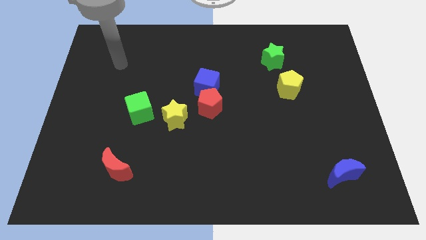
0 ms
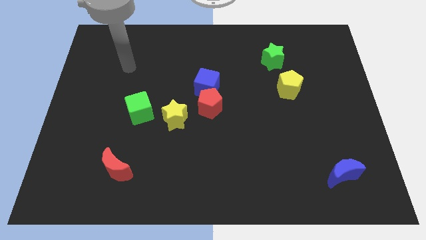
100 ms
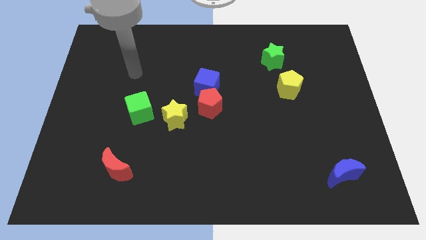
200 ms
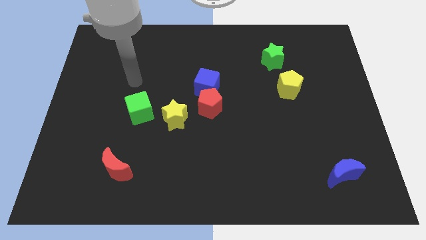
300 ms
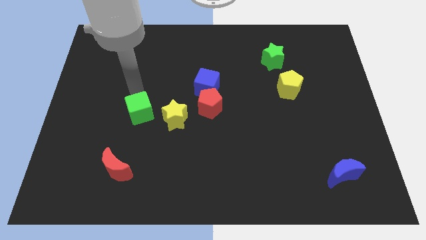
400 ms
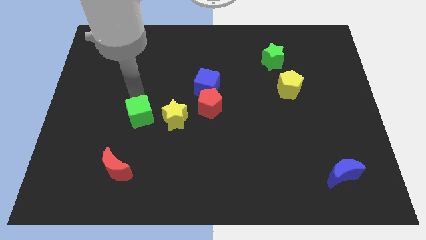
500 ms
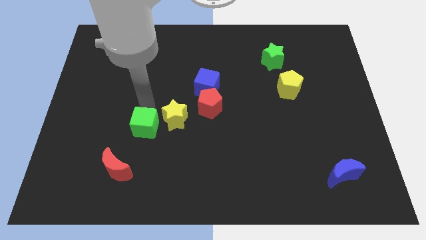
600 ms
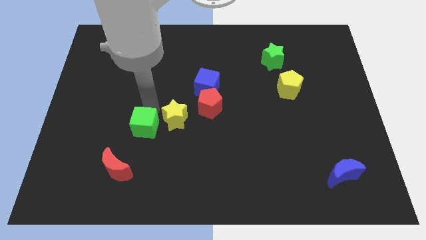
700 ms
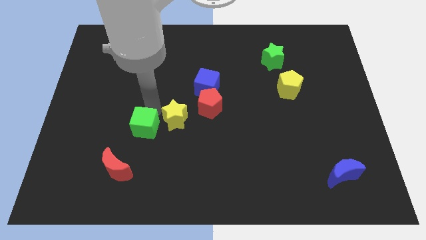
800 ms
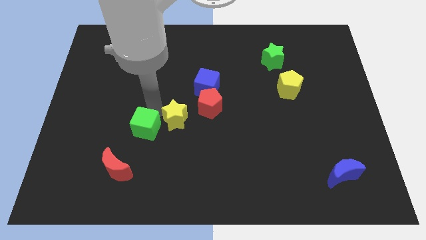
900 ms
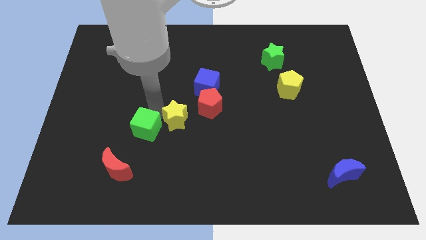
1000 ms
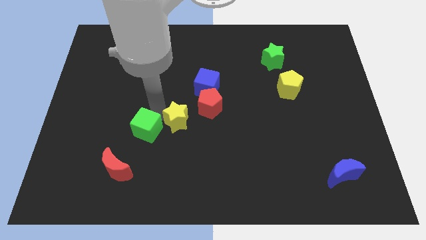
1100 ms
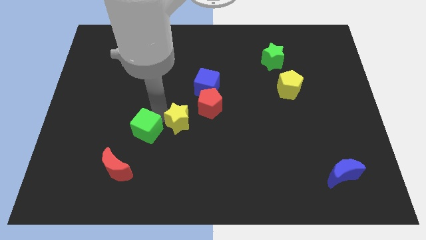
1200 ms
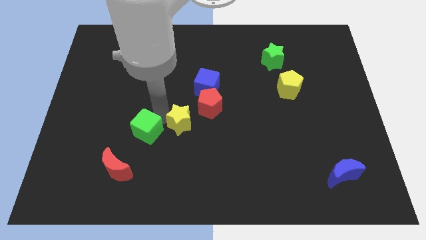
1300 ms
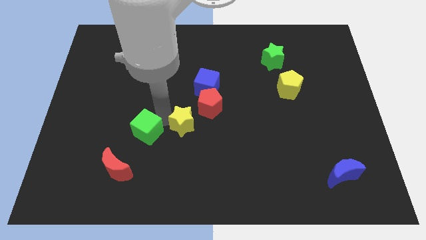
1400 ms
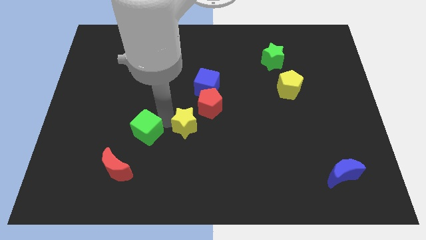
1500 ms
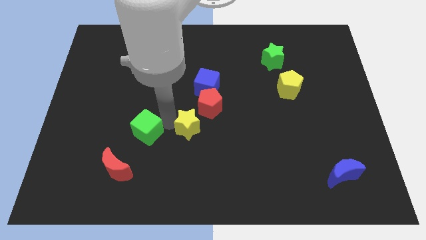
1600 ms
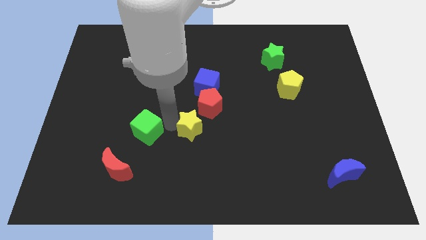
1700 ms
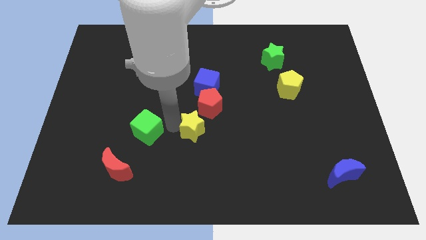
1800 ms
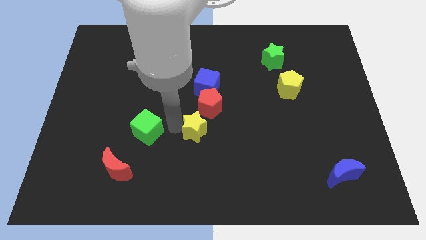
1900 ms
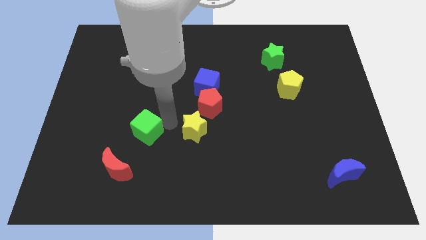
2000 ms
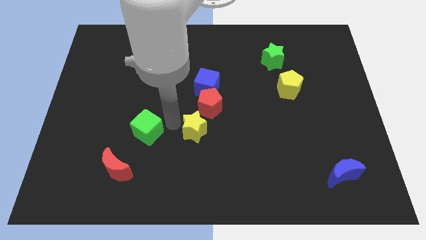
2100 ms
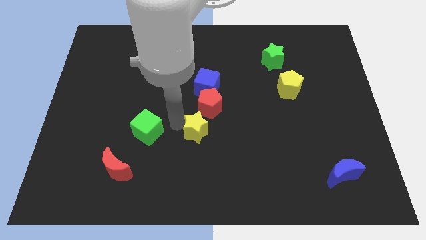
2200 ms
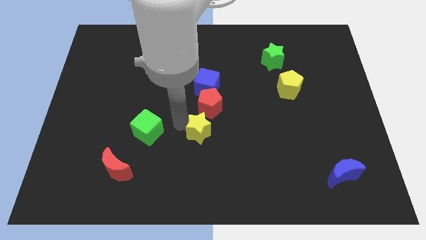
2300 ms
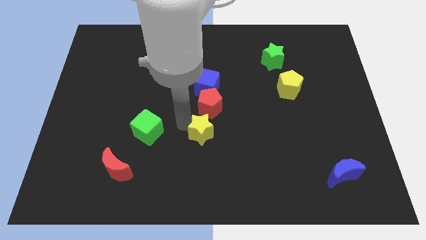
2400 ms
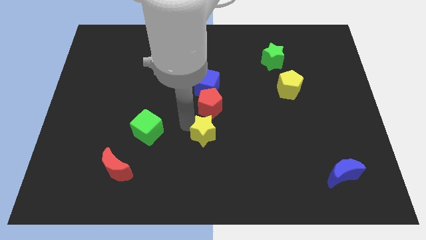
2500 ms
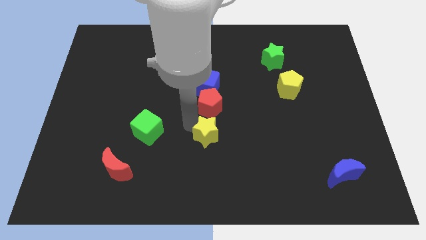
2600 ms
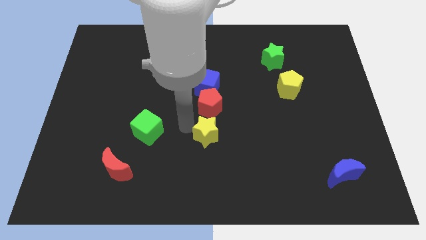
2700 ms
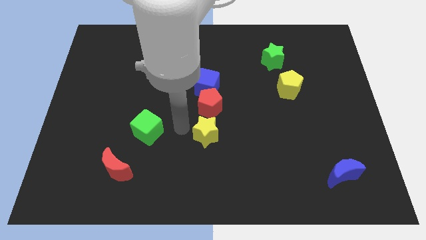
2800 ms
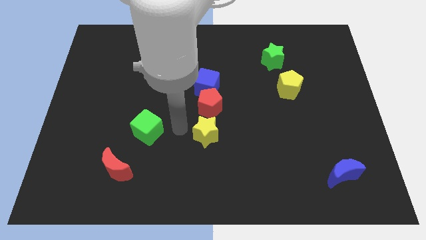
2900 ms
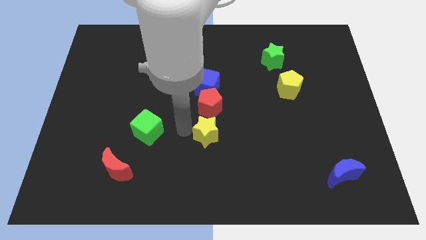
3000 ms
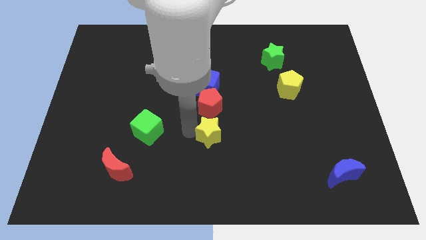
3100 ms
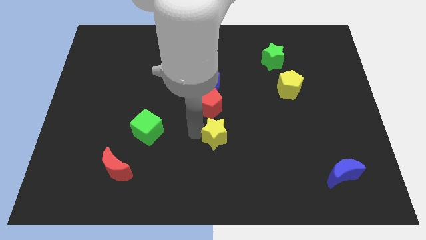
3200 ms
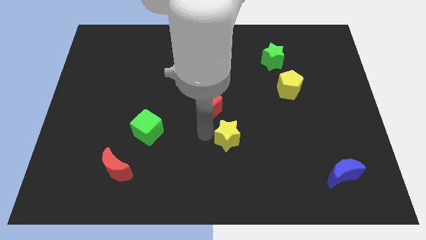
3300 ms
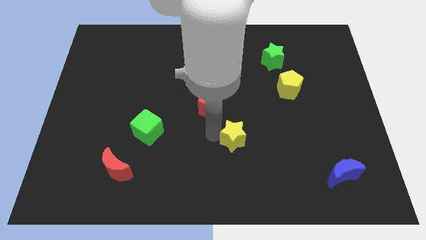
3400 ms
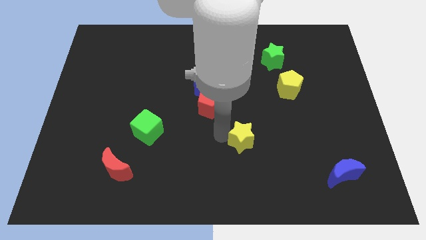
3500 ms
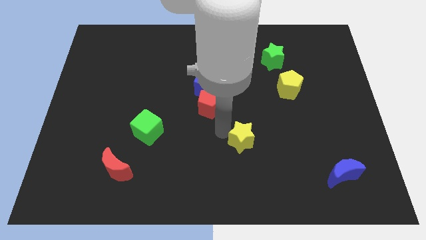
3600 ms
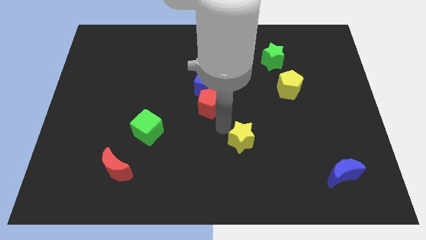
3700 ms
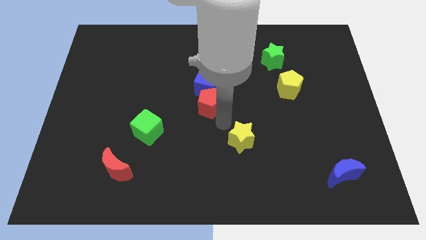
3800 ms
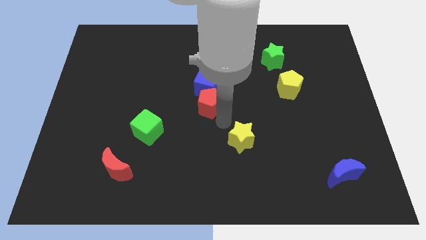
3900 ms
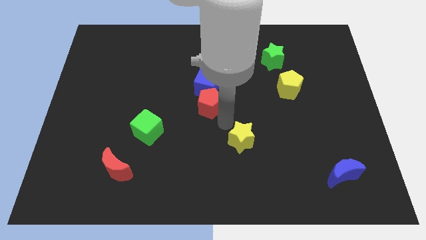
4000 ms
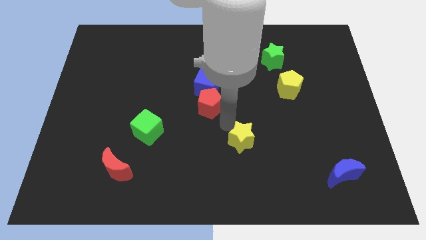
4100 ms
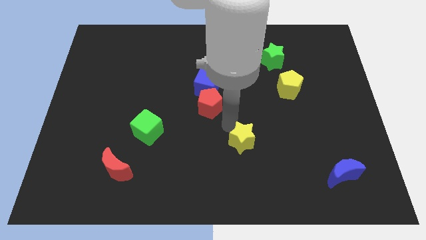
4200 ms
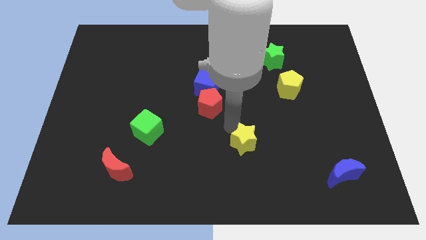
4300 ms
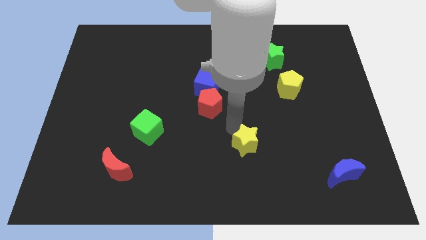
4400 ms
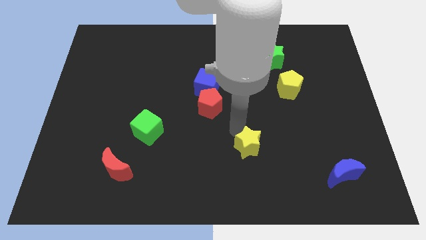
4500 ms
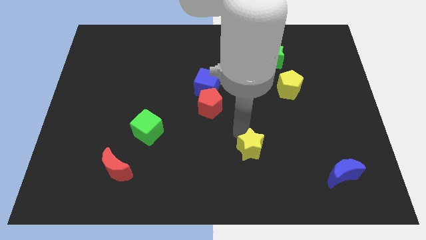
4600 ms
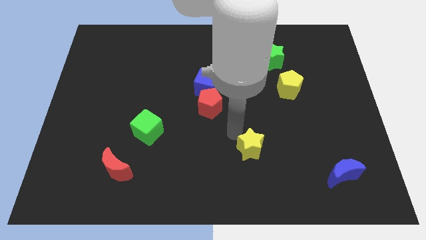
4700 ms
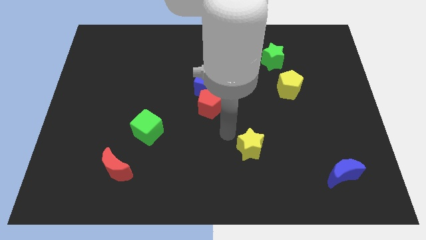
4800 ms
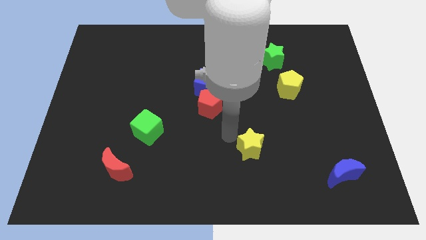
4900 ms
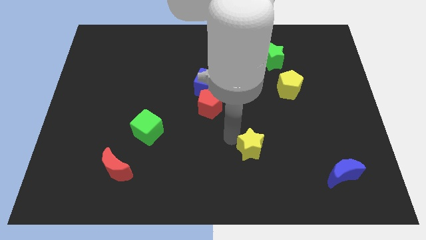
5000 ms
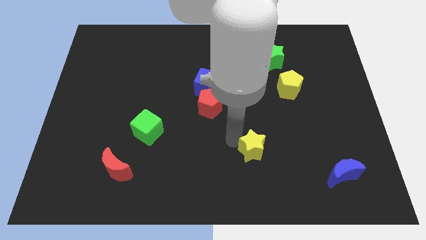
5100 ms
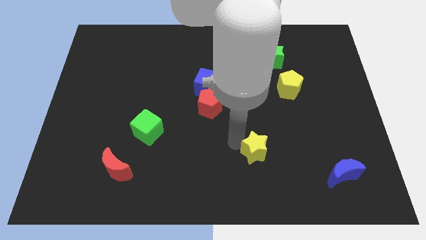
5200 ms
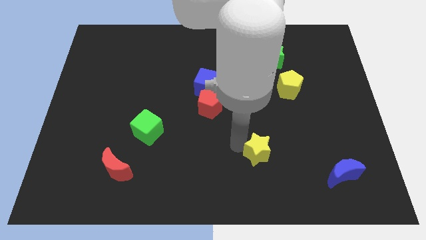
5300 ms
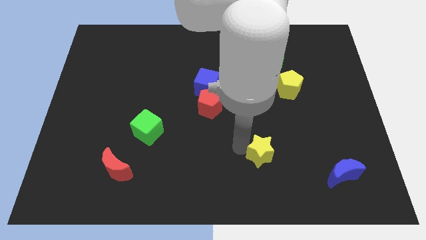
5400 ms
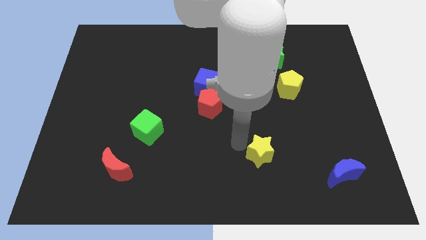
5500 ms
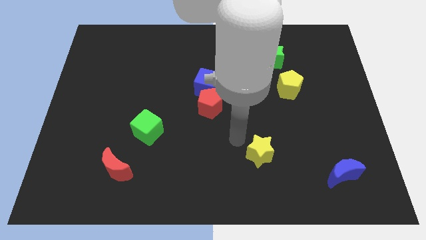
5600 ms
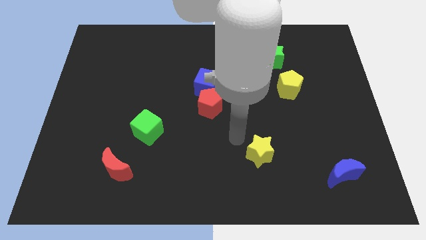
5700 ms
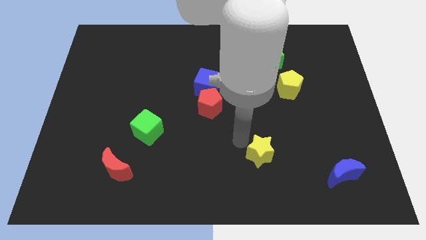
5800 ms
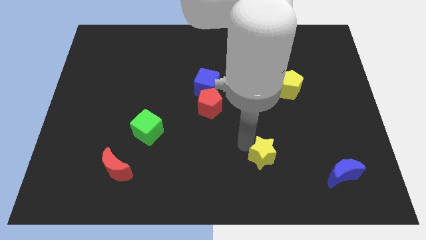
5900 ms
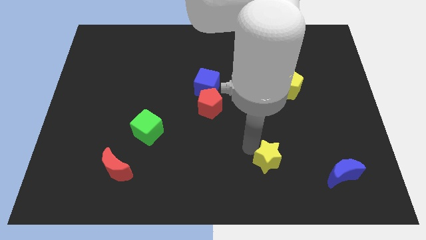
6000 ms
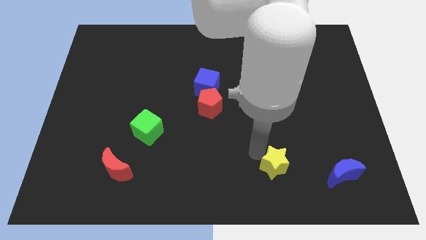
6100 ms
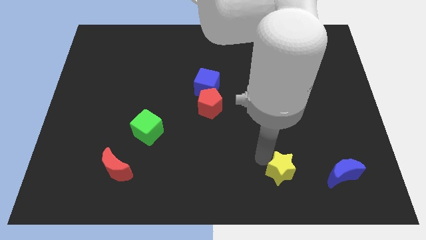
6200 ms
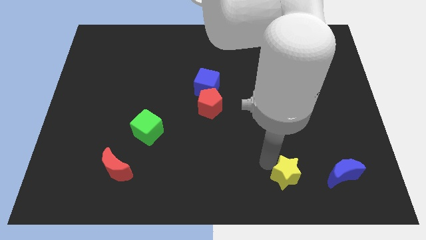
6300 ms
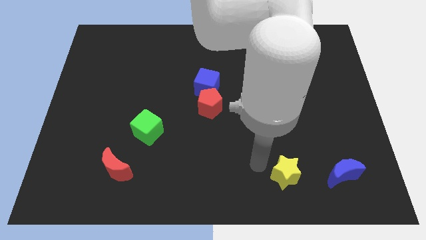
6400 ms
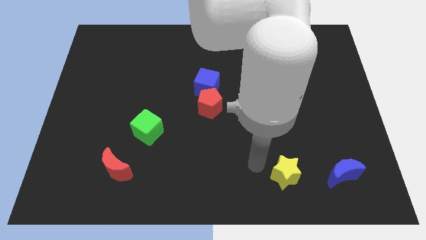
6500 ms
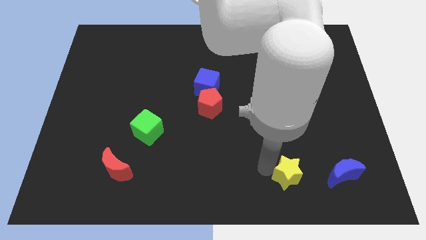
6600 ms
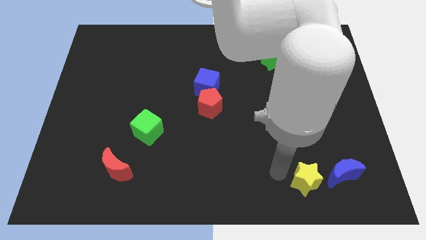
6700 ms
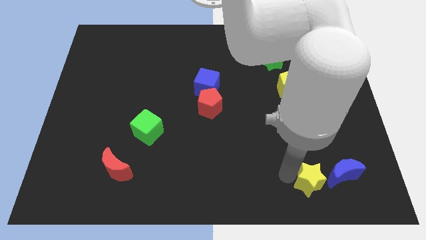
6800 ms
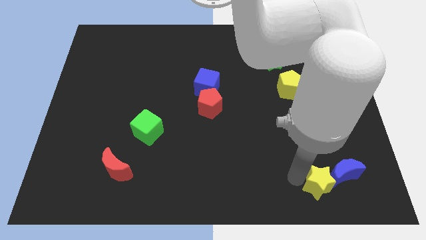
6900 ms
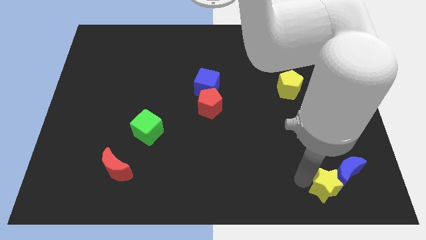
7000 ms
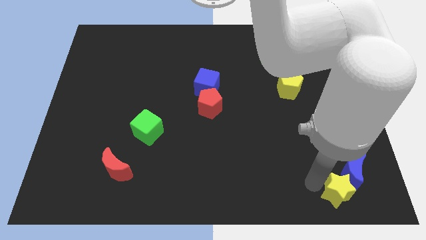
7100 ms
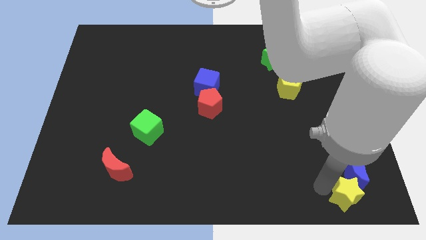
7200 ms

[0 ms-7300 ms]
slide the yellow star to the bottom right
